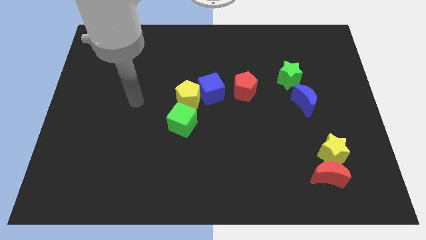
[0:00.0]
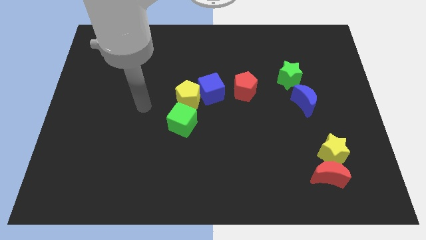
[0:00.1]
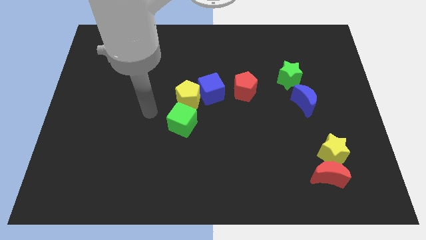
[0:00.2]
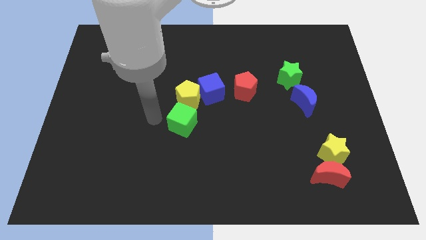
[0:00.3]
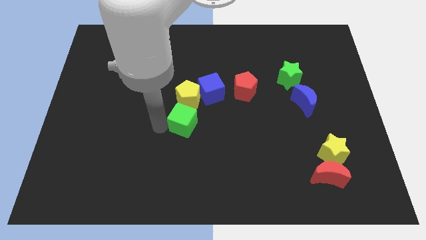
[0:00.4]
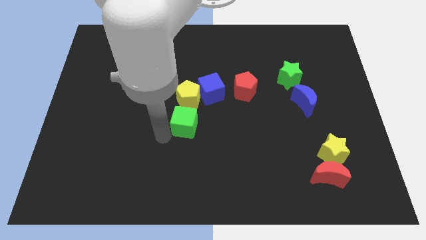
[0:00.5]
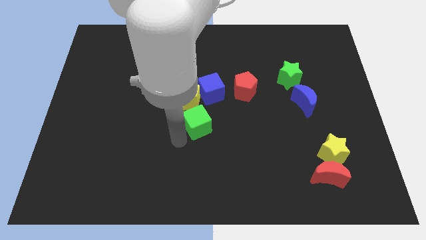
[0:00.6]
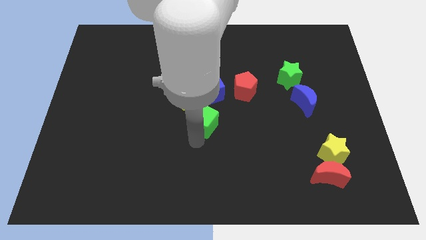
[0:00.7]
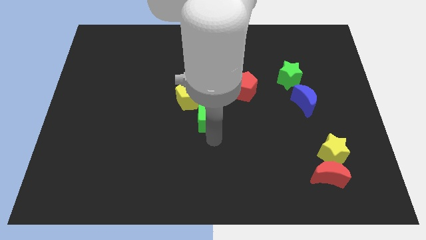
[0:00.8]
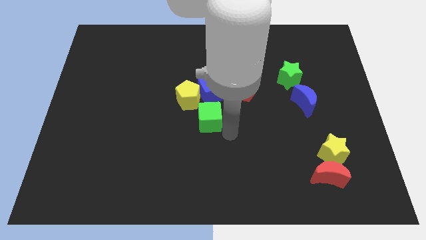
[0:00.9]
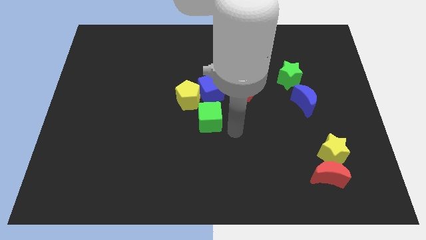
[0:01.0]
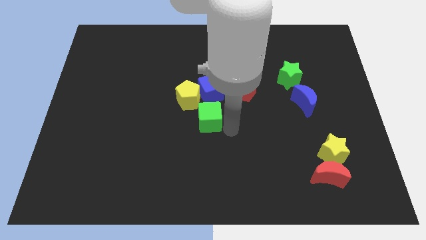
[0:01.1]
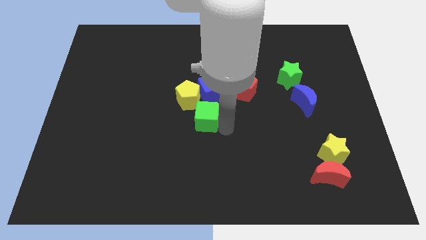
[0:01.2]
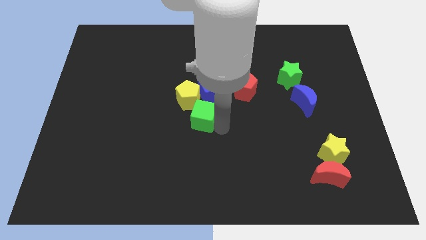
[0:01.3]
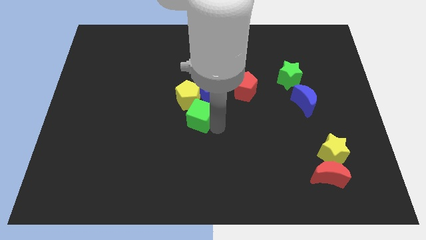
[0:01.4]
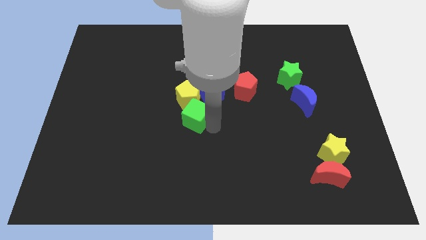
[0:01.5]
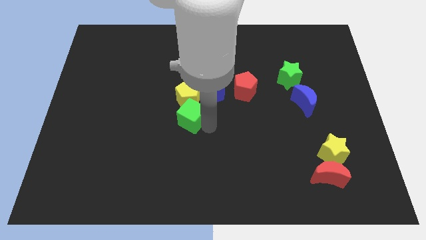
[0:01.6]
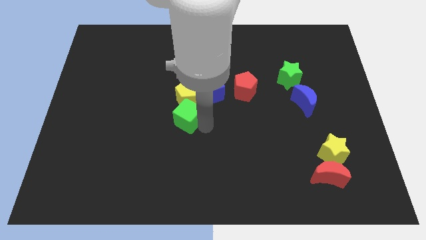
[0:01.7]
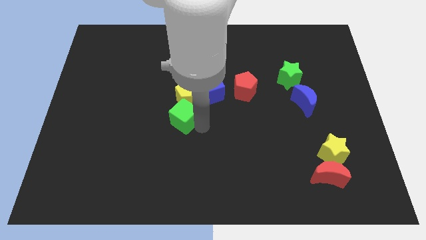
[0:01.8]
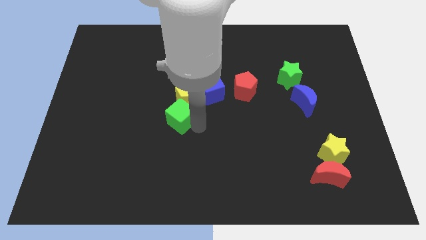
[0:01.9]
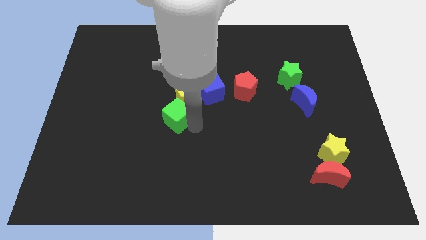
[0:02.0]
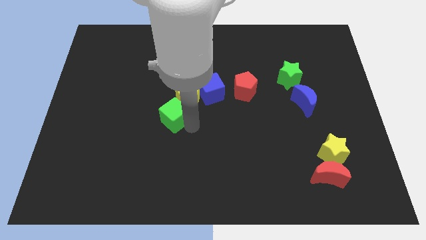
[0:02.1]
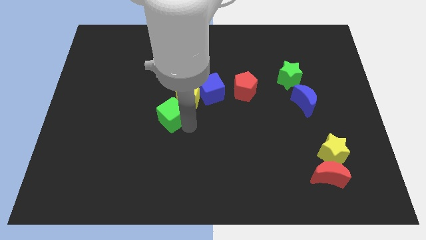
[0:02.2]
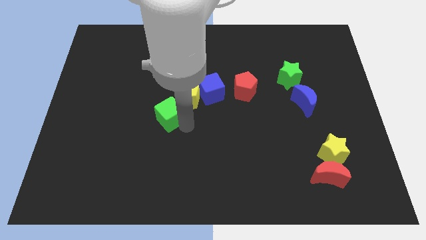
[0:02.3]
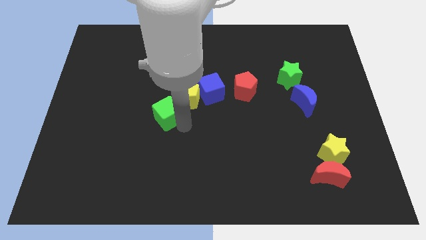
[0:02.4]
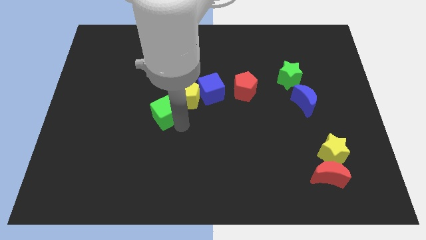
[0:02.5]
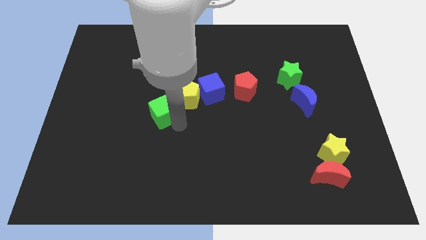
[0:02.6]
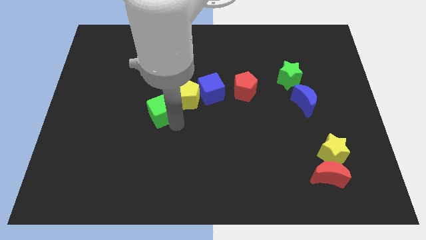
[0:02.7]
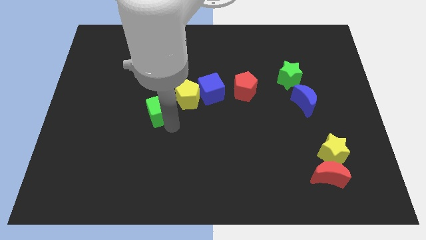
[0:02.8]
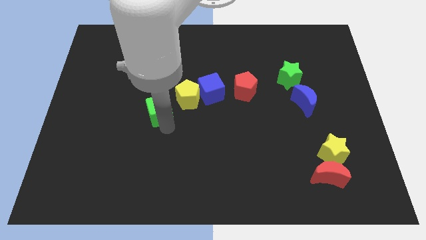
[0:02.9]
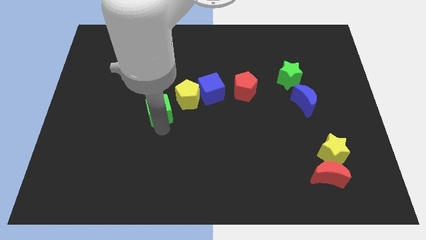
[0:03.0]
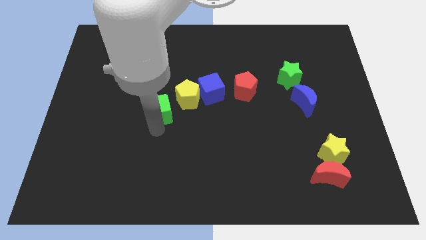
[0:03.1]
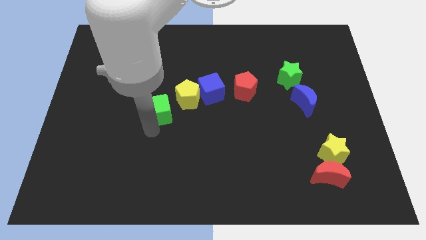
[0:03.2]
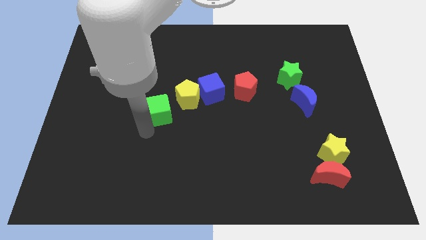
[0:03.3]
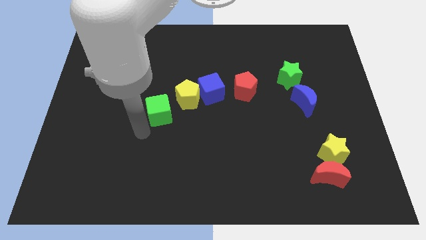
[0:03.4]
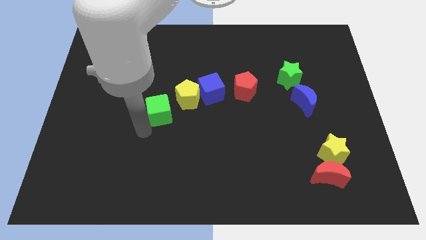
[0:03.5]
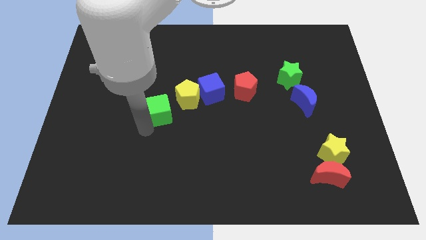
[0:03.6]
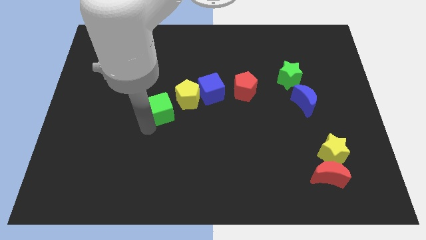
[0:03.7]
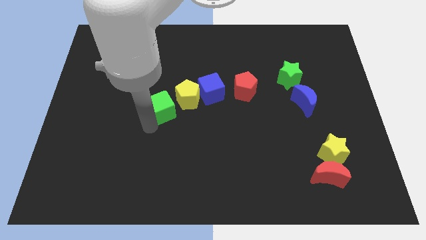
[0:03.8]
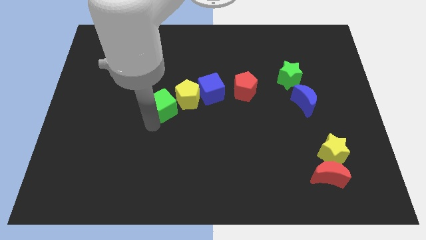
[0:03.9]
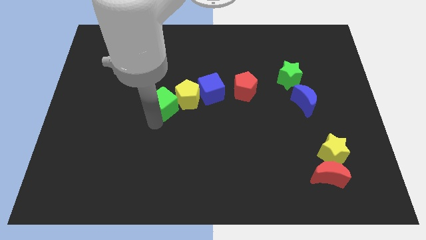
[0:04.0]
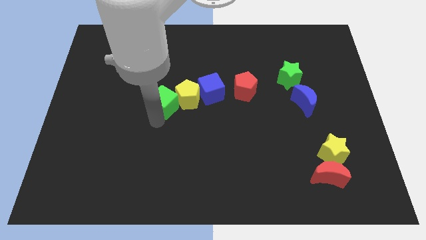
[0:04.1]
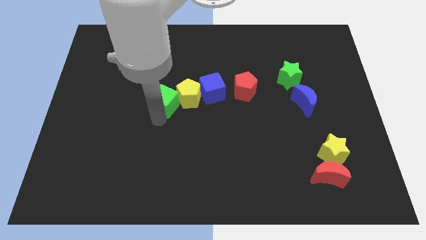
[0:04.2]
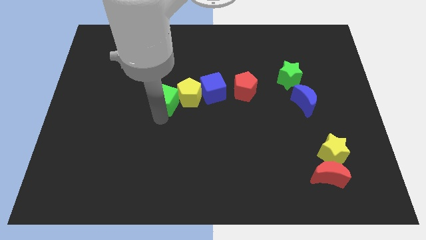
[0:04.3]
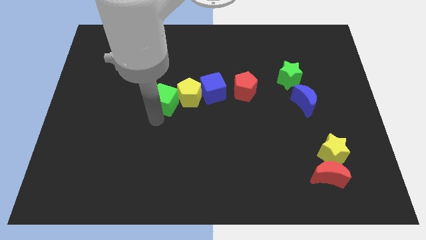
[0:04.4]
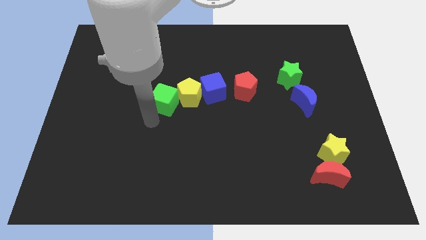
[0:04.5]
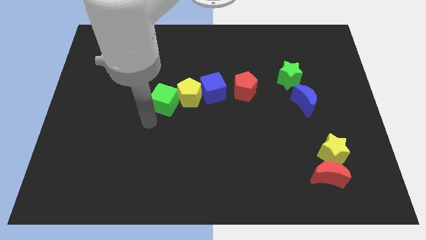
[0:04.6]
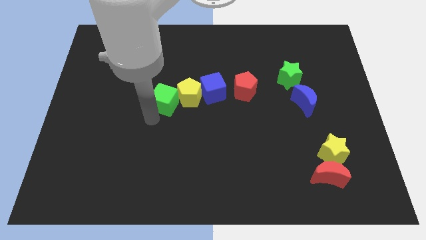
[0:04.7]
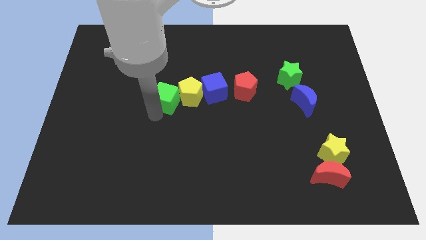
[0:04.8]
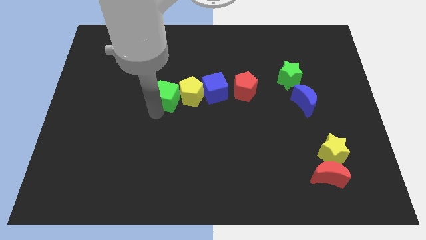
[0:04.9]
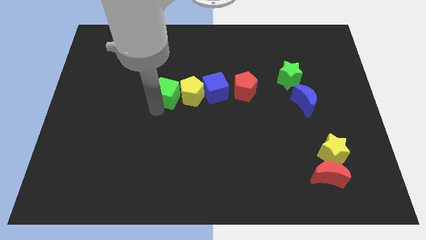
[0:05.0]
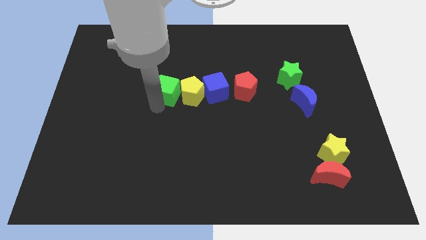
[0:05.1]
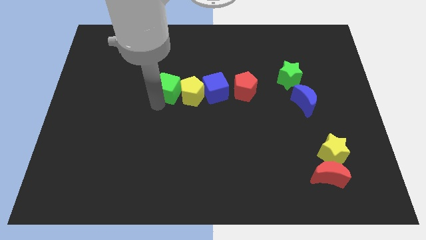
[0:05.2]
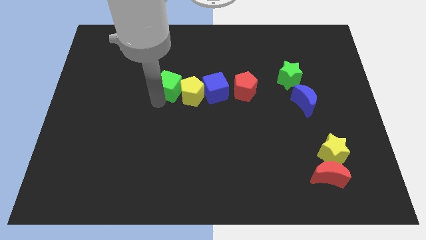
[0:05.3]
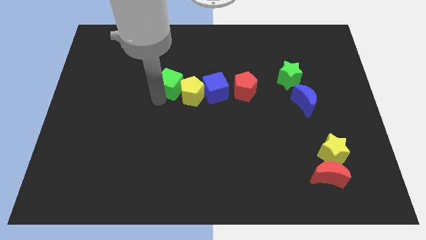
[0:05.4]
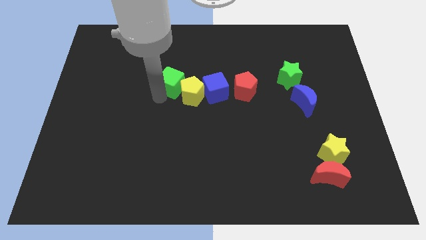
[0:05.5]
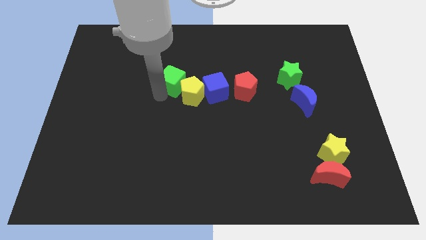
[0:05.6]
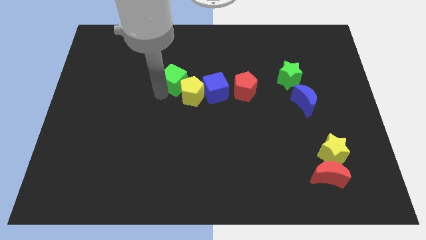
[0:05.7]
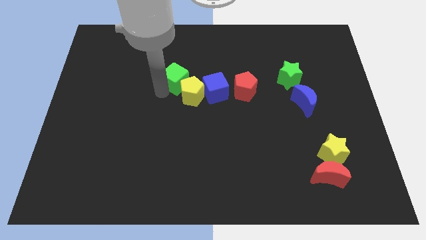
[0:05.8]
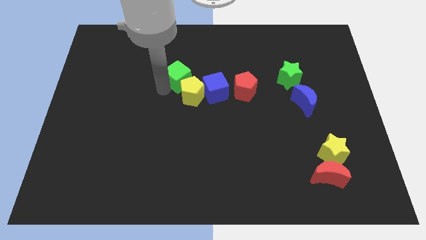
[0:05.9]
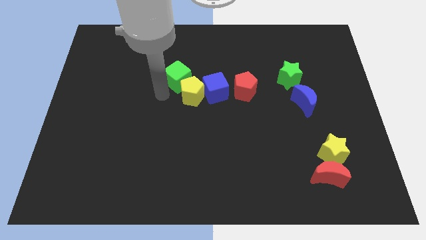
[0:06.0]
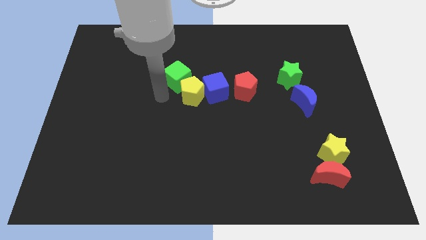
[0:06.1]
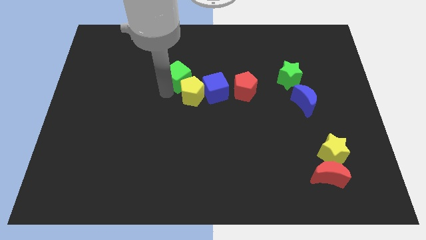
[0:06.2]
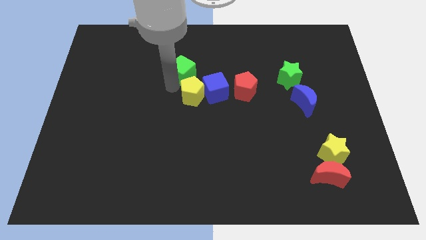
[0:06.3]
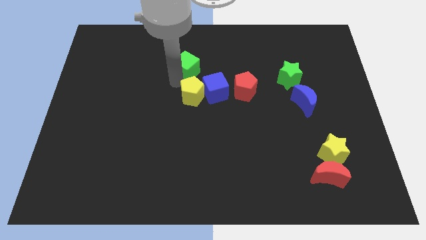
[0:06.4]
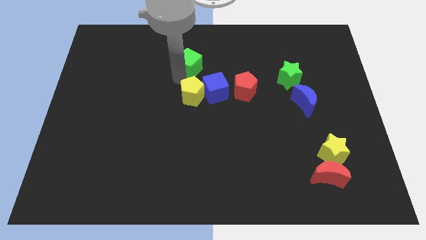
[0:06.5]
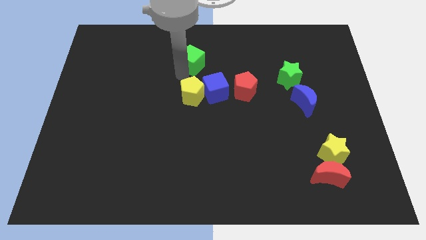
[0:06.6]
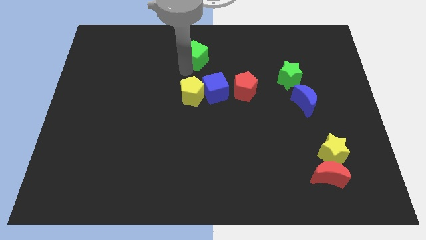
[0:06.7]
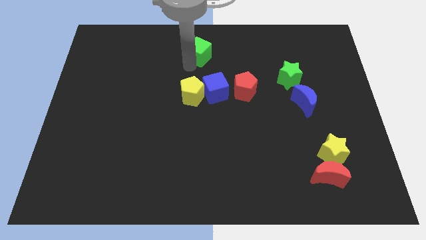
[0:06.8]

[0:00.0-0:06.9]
slide the green cube to the towards your base
